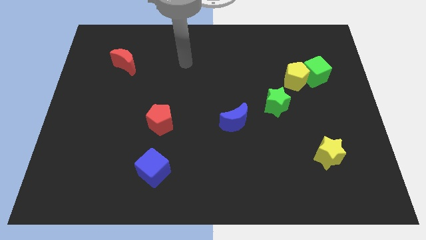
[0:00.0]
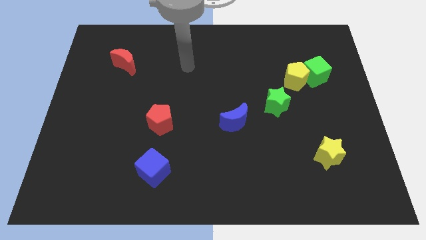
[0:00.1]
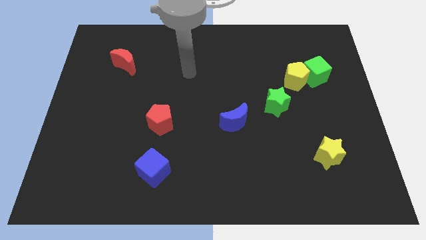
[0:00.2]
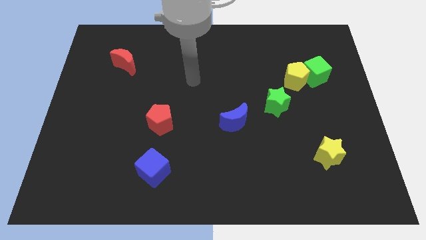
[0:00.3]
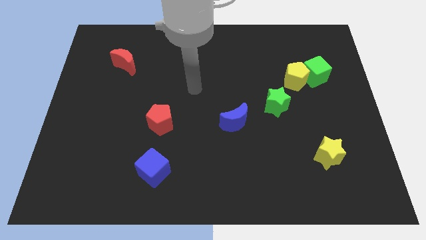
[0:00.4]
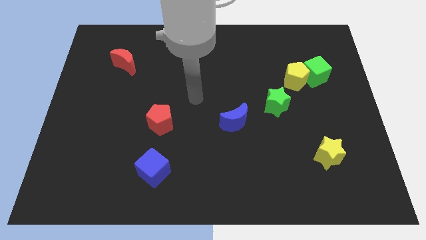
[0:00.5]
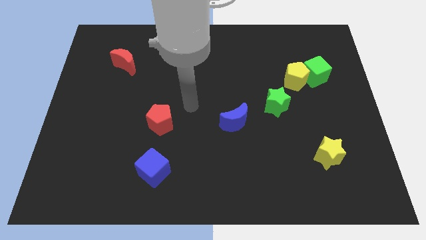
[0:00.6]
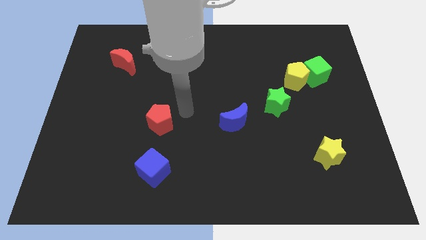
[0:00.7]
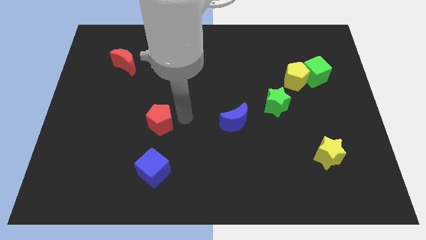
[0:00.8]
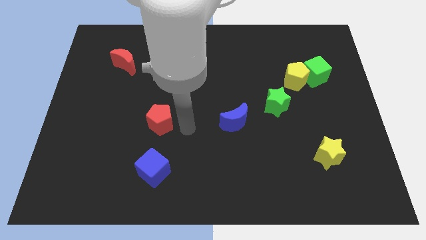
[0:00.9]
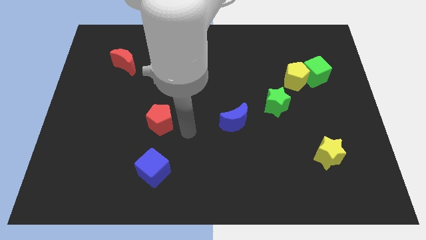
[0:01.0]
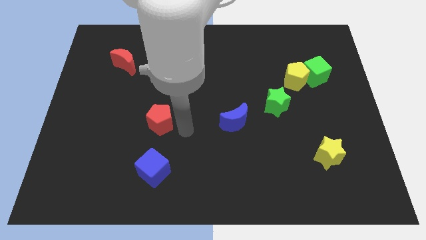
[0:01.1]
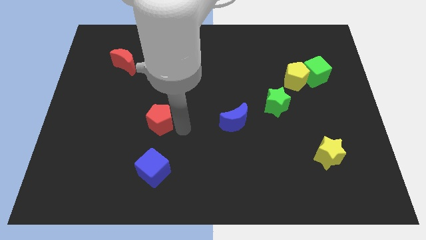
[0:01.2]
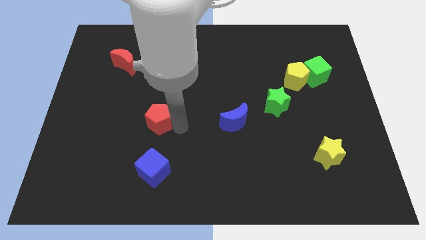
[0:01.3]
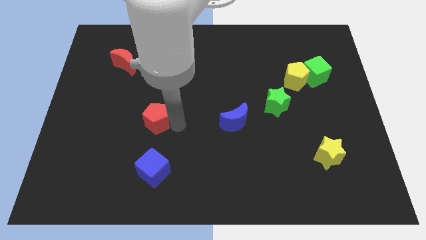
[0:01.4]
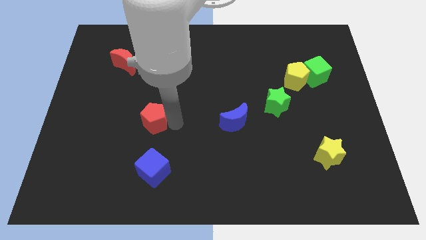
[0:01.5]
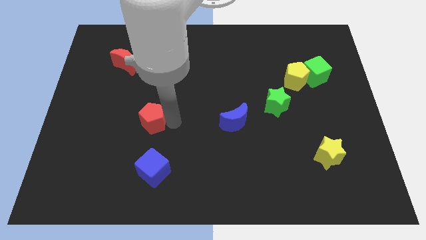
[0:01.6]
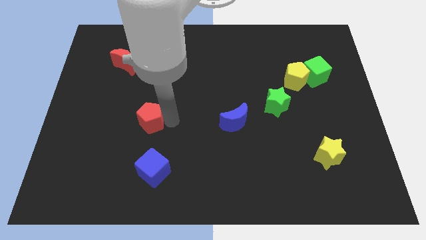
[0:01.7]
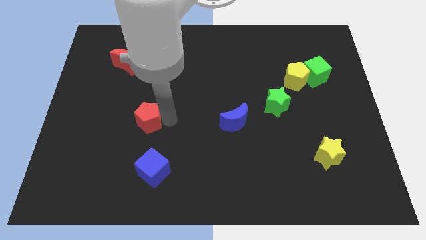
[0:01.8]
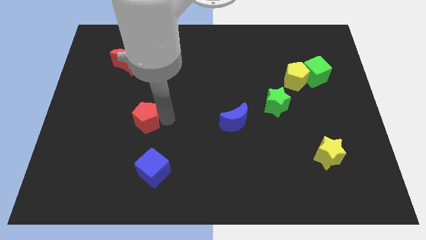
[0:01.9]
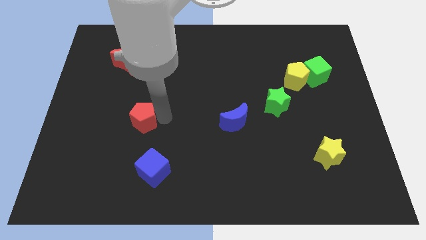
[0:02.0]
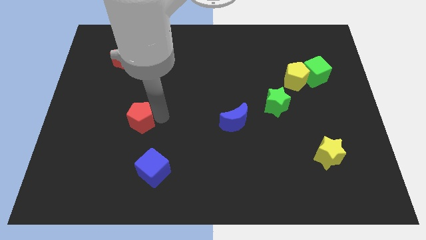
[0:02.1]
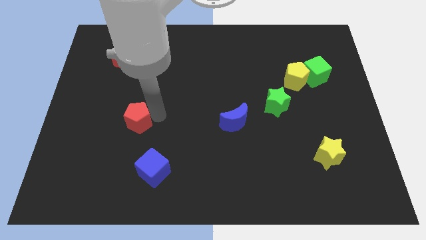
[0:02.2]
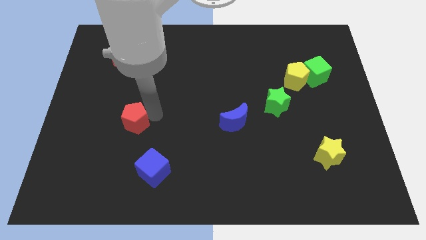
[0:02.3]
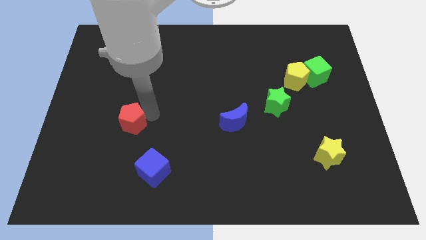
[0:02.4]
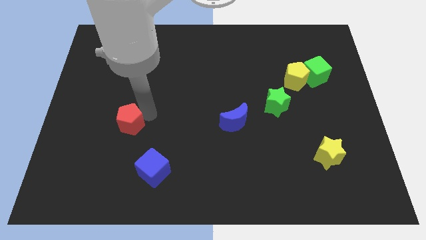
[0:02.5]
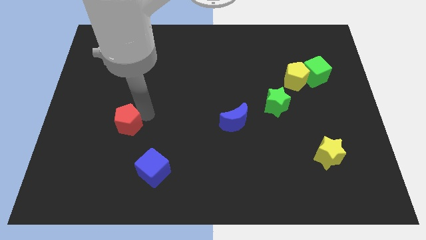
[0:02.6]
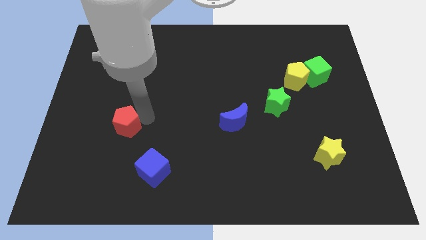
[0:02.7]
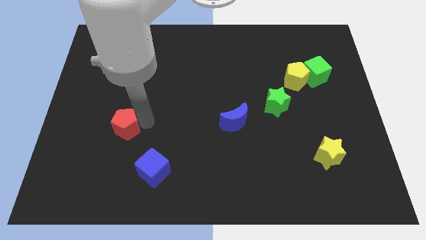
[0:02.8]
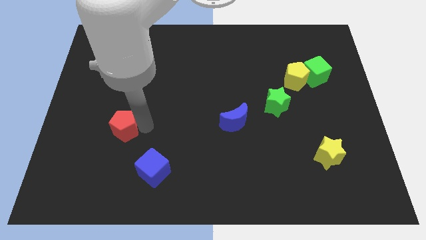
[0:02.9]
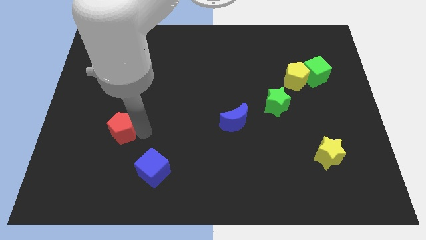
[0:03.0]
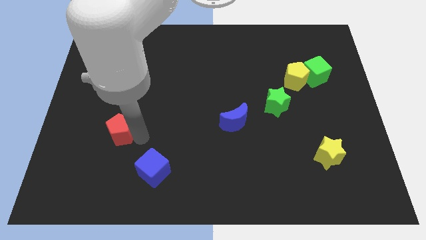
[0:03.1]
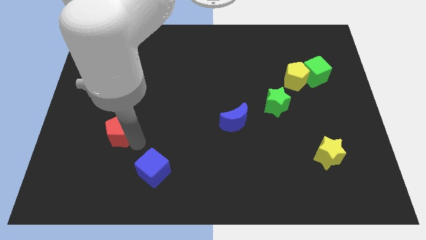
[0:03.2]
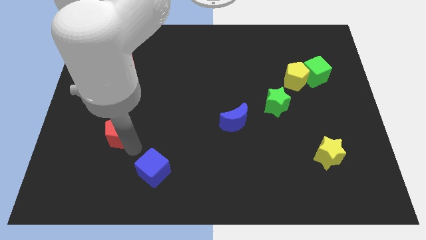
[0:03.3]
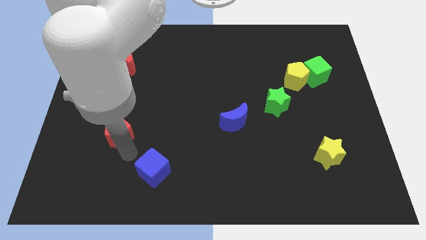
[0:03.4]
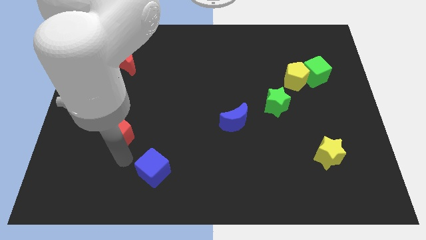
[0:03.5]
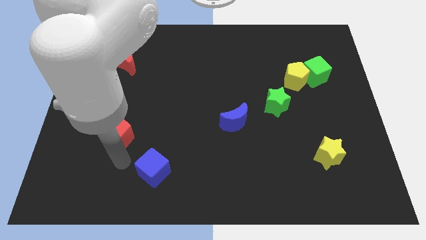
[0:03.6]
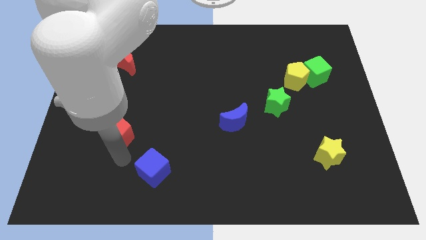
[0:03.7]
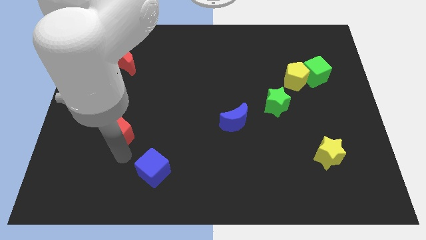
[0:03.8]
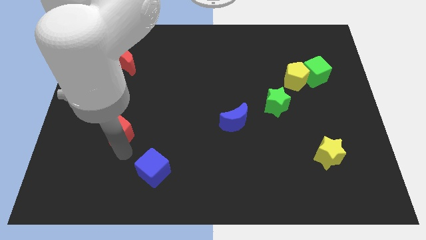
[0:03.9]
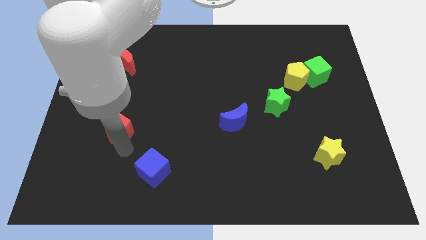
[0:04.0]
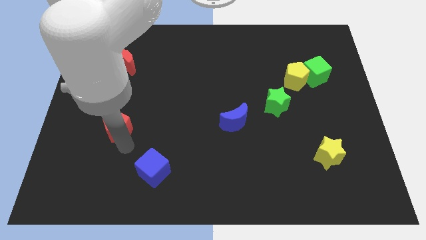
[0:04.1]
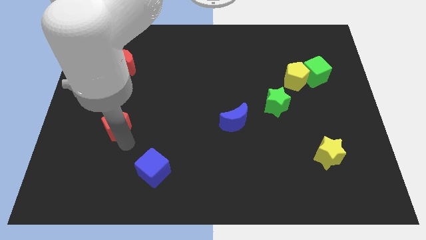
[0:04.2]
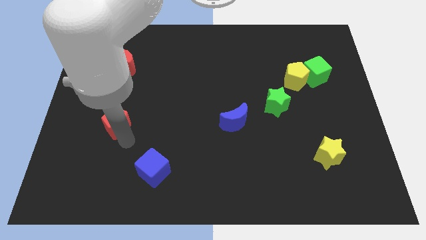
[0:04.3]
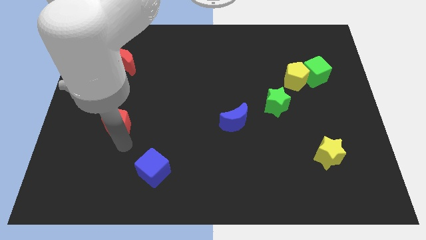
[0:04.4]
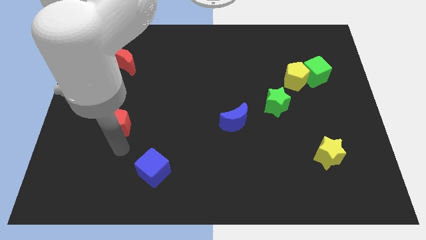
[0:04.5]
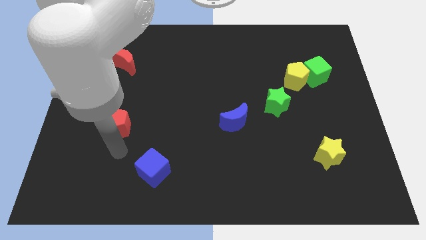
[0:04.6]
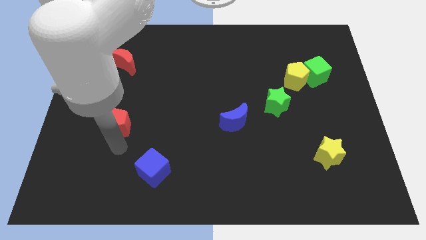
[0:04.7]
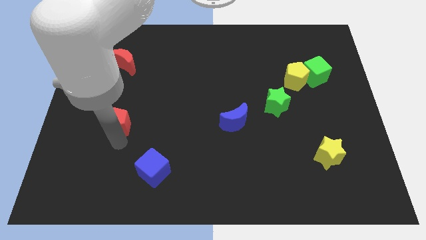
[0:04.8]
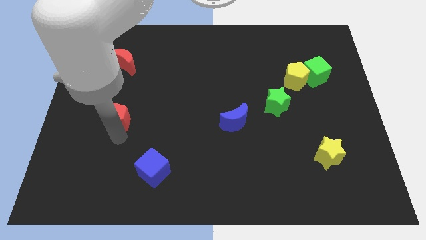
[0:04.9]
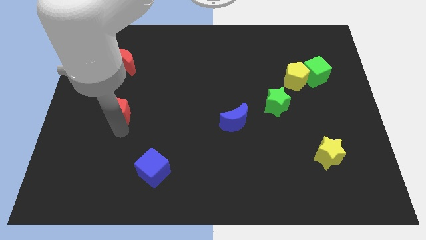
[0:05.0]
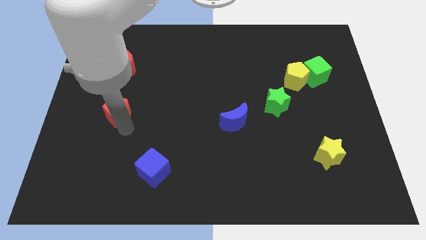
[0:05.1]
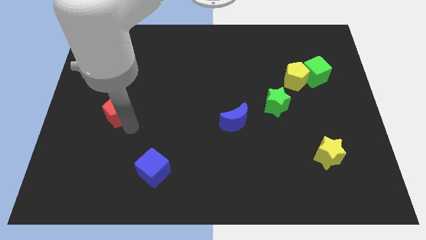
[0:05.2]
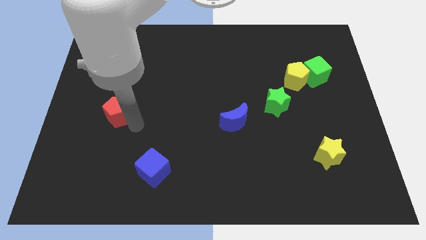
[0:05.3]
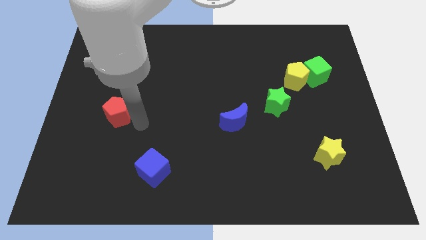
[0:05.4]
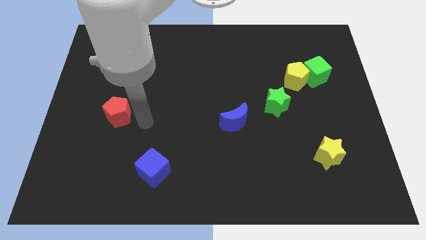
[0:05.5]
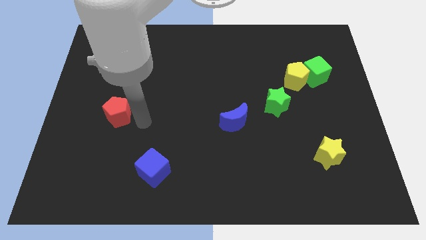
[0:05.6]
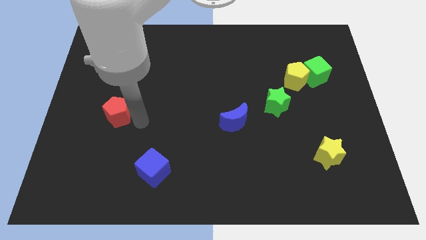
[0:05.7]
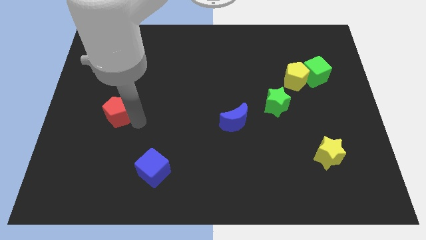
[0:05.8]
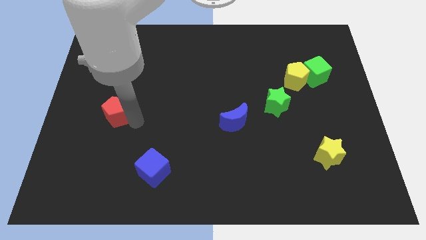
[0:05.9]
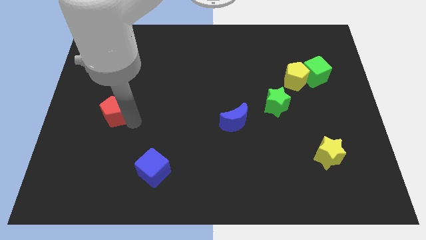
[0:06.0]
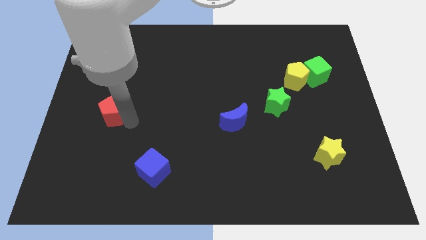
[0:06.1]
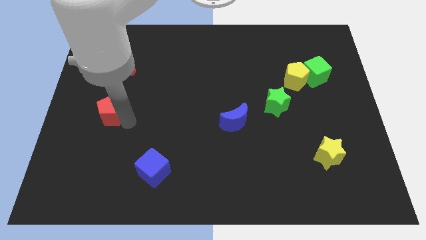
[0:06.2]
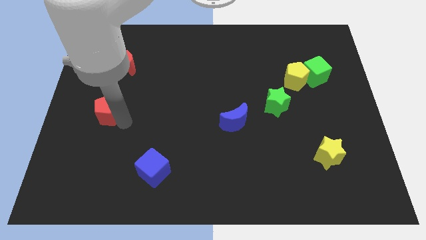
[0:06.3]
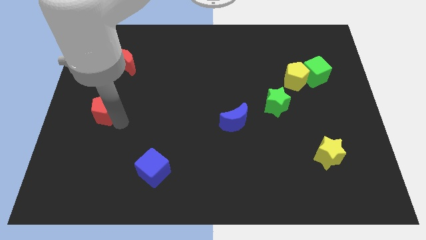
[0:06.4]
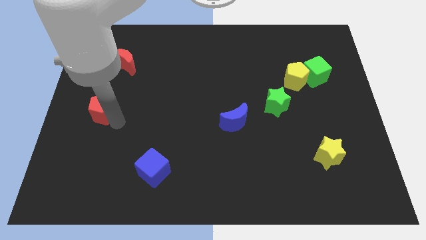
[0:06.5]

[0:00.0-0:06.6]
push the red pentagon to the center left
